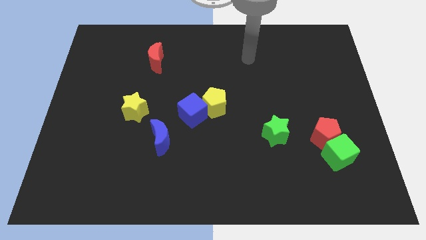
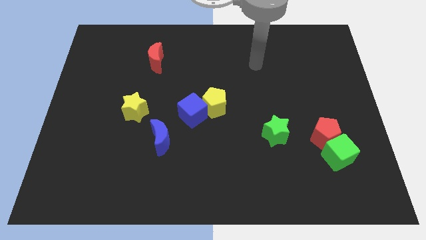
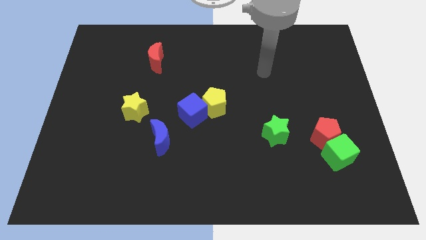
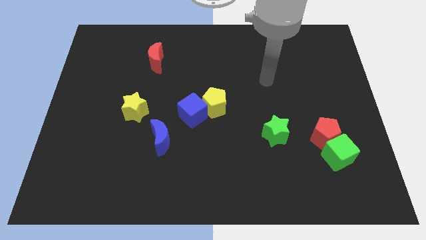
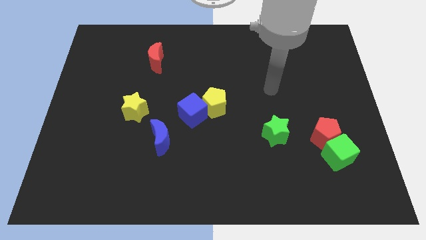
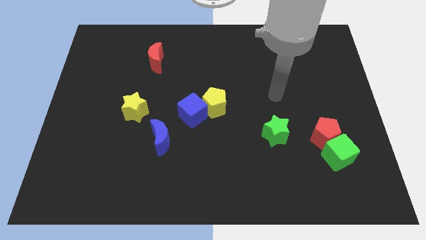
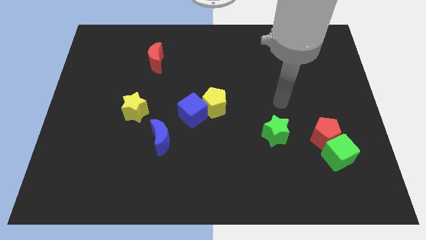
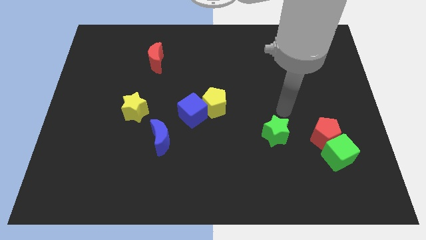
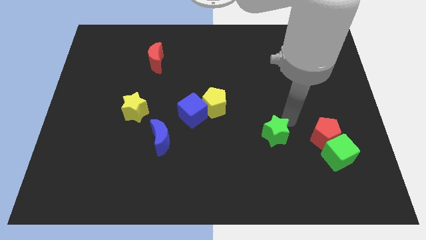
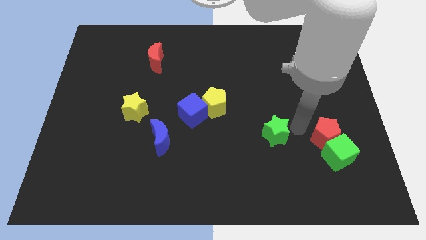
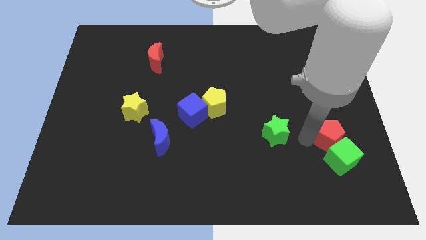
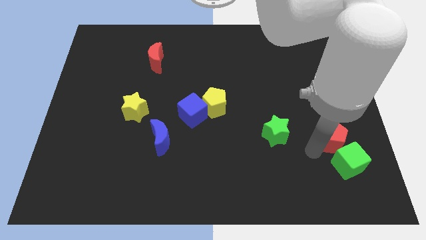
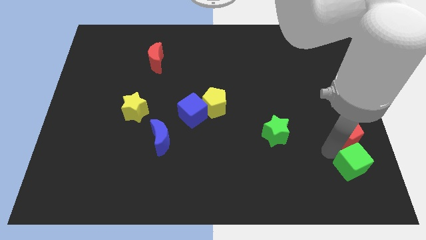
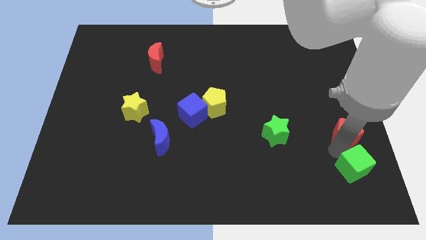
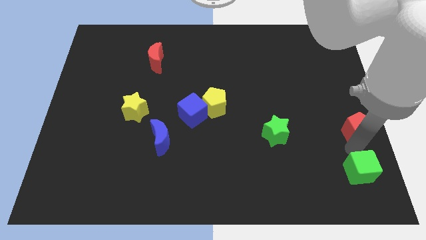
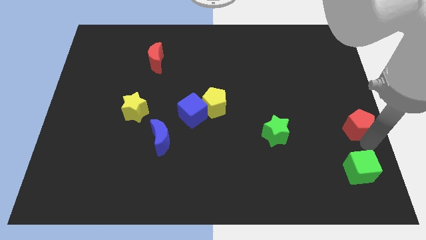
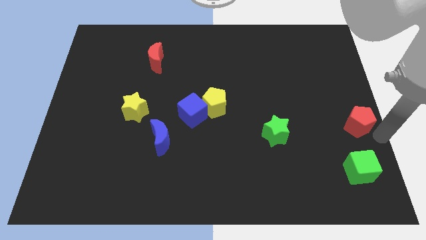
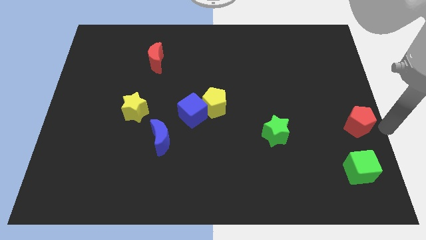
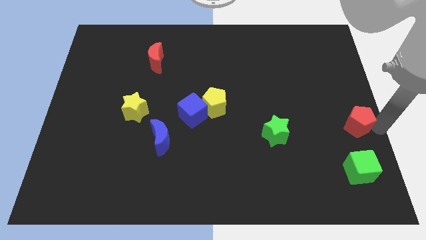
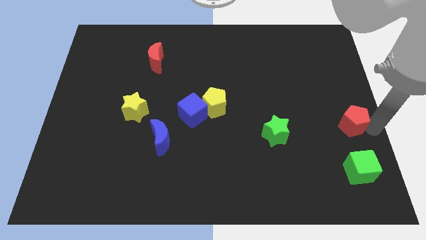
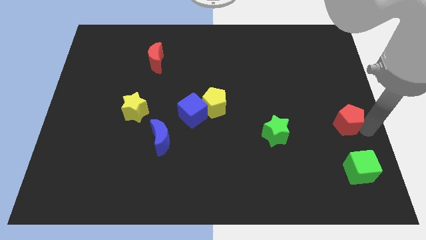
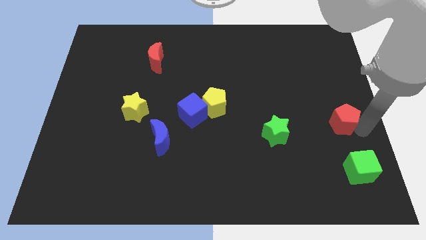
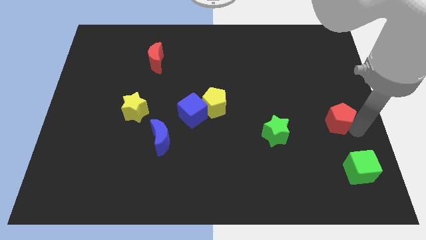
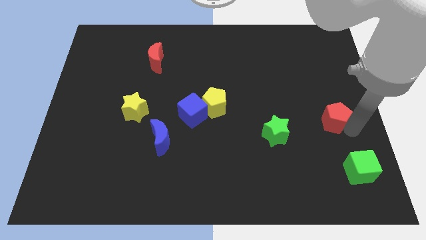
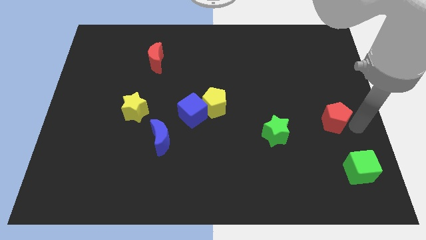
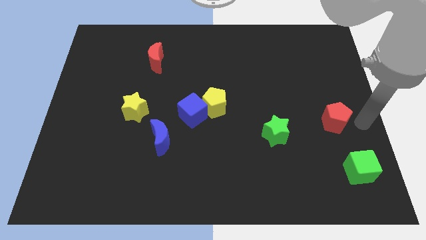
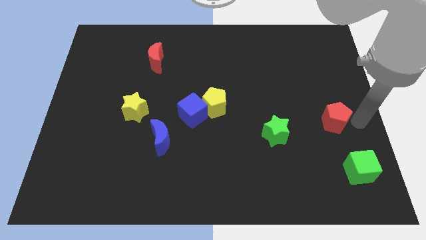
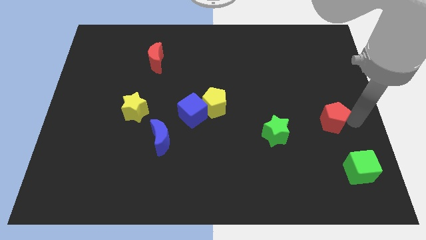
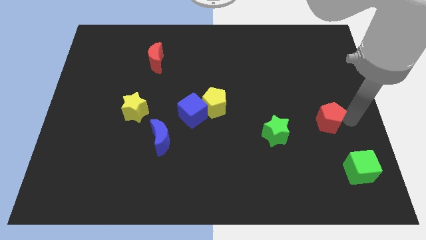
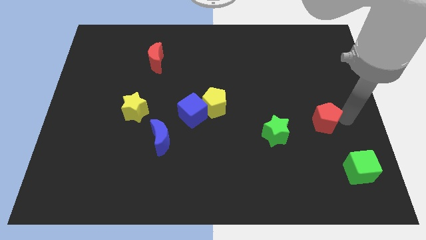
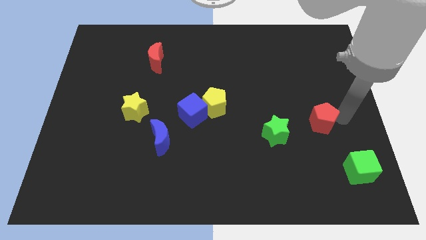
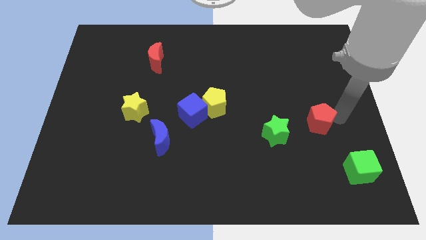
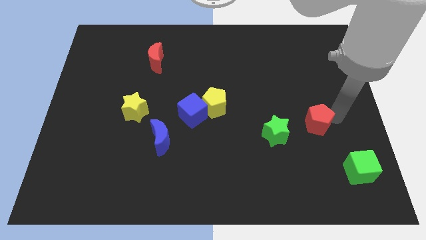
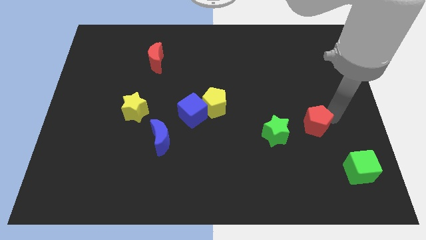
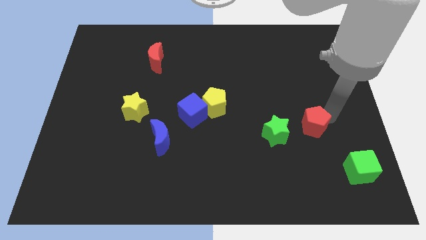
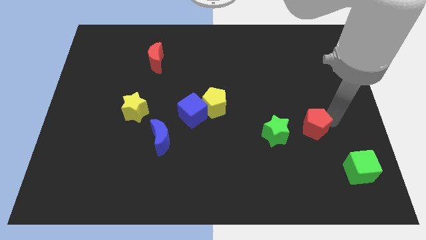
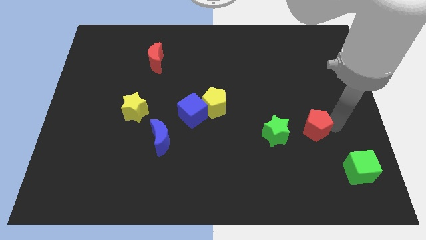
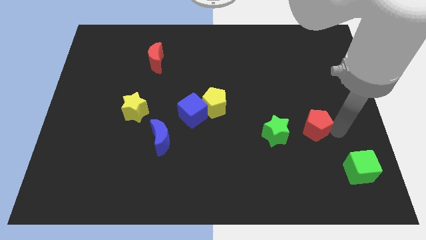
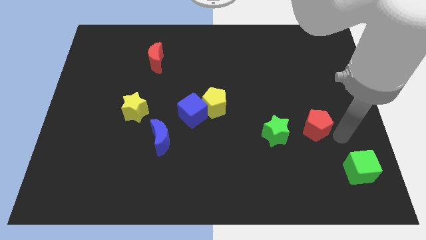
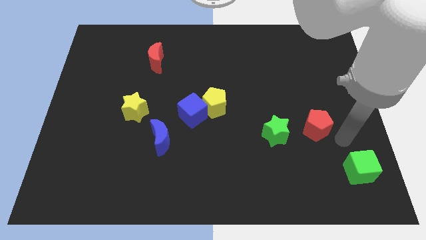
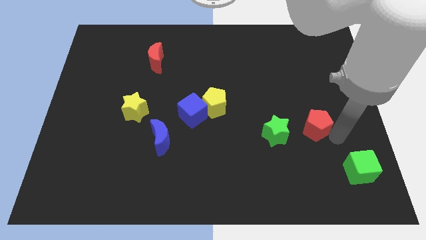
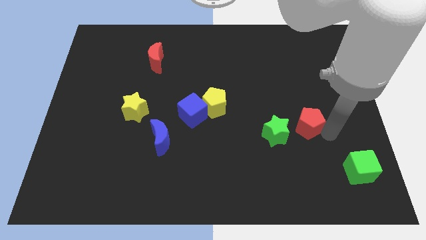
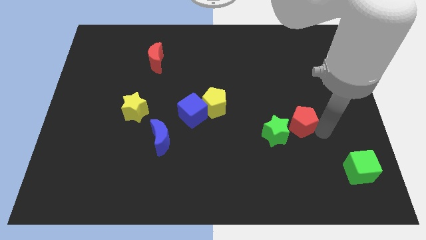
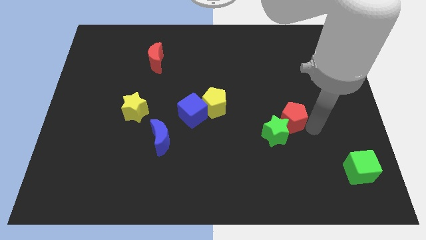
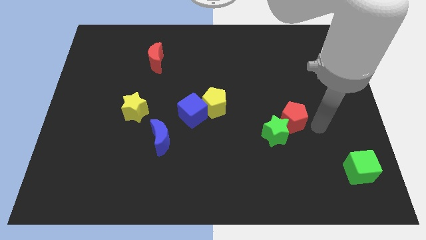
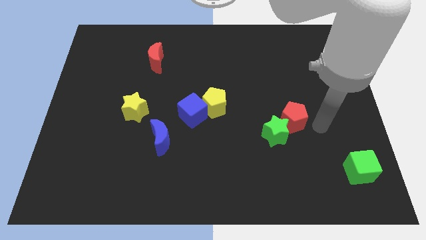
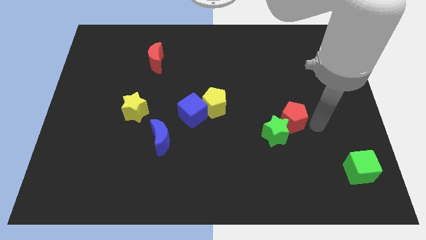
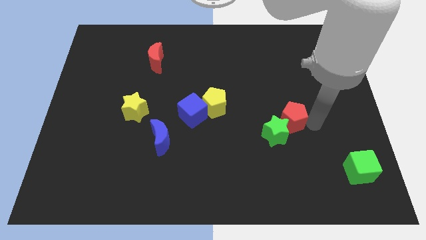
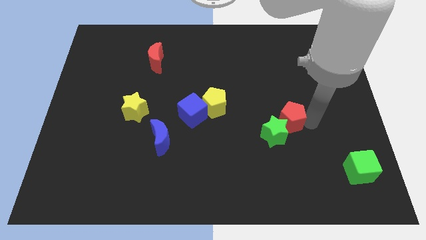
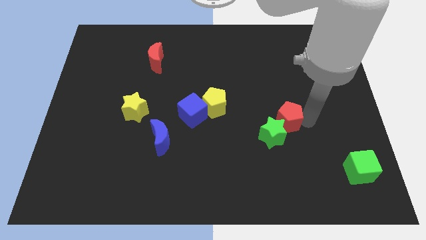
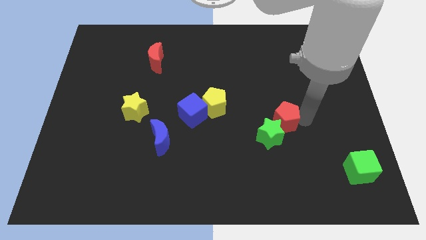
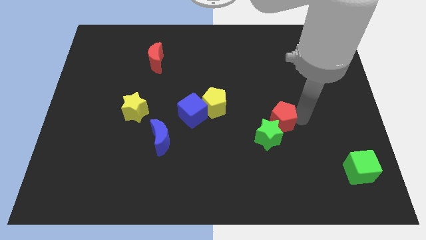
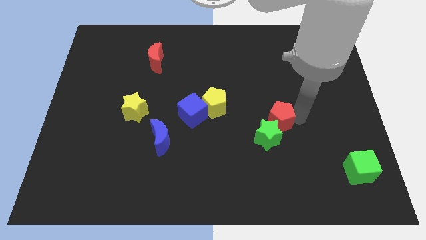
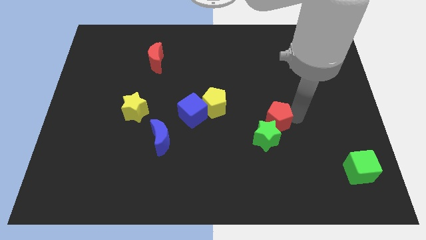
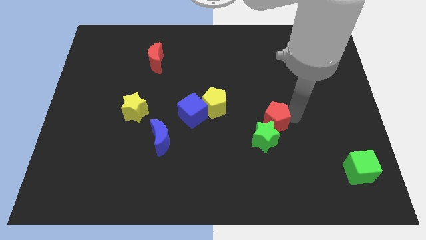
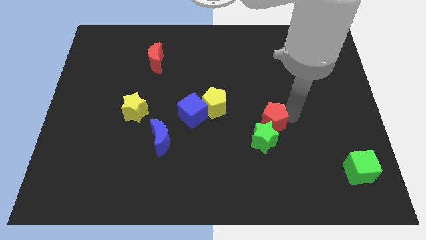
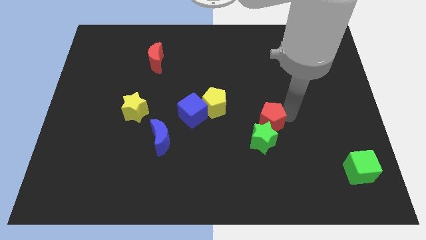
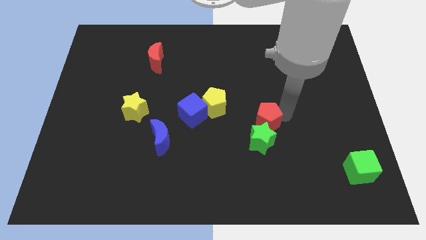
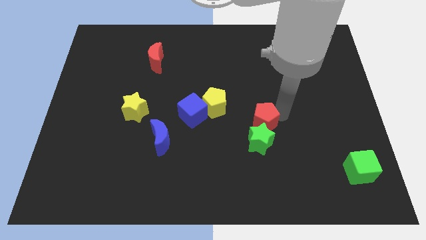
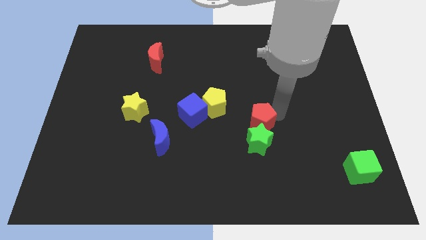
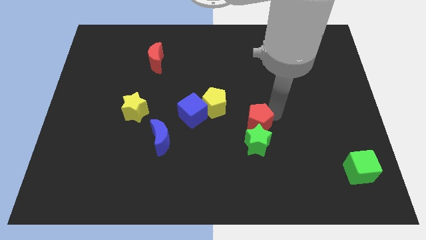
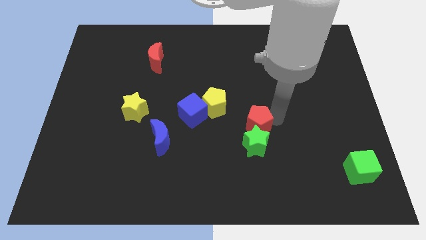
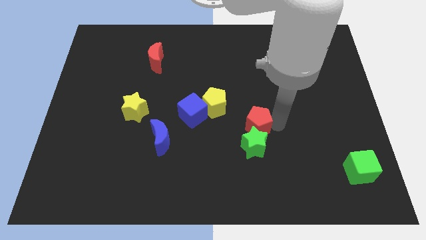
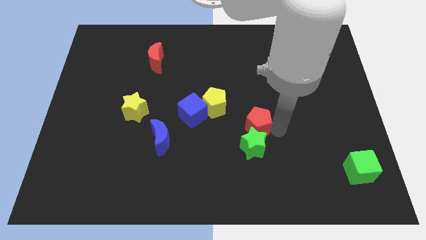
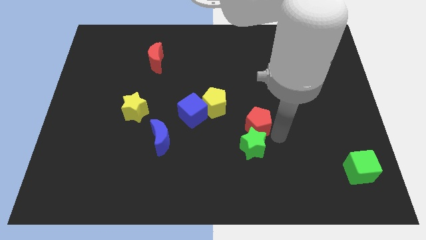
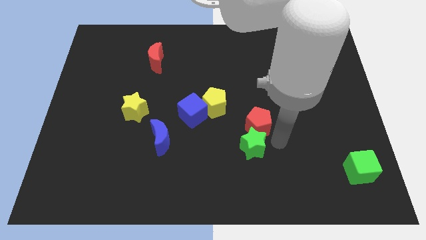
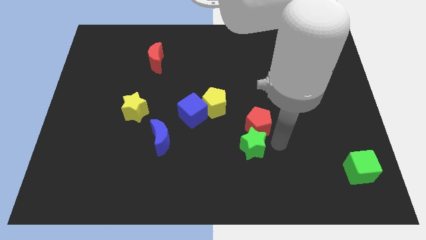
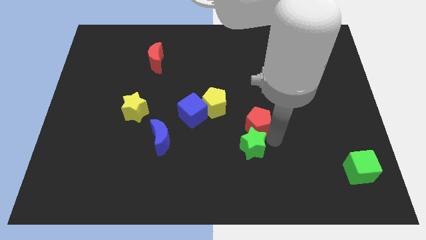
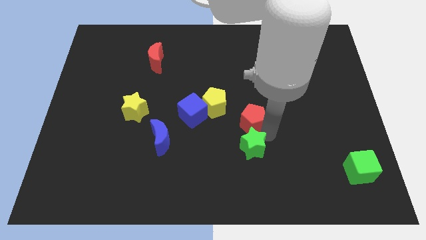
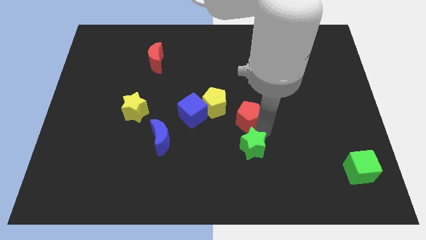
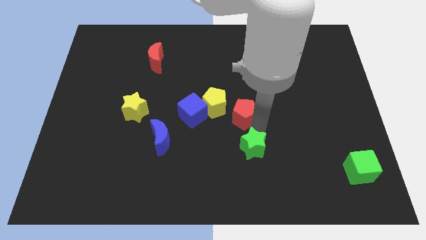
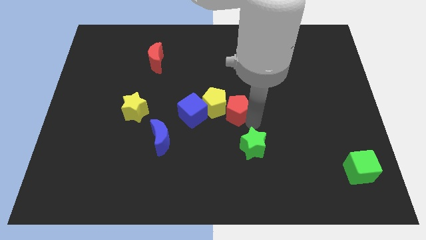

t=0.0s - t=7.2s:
put the red pentagon to the yellow pentagon
